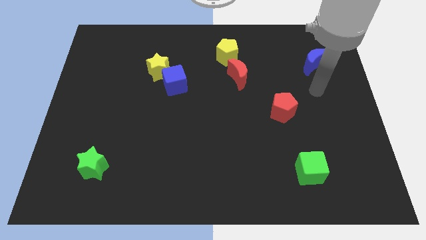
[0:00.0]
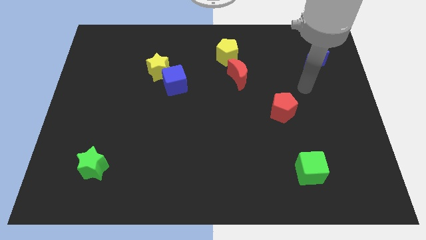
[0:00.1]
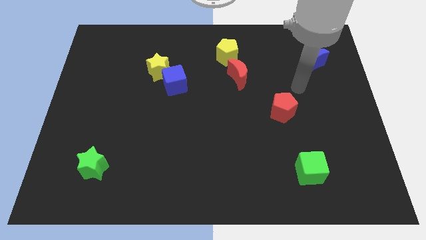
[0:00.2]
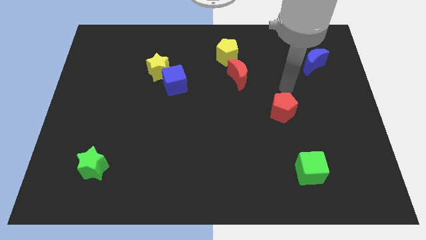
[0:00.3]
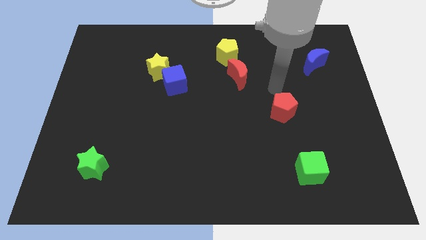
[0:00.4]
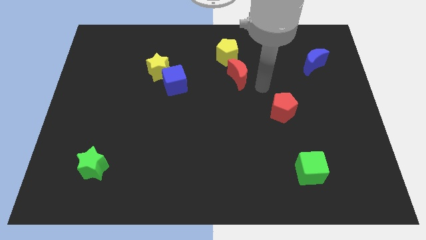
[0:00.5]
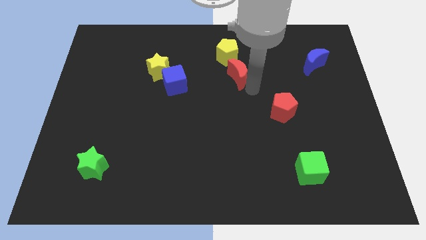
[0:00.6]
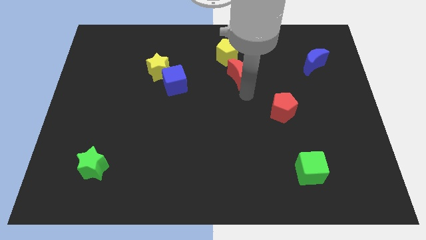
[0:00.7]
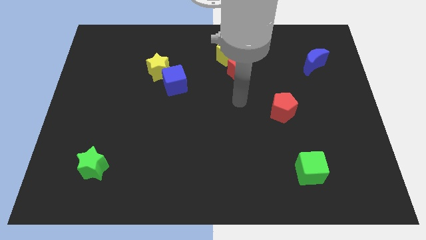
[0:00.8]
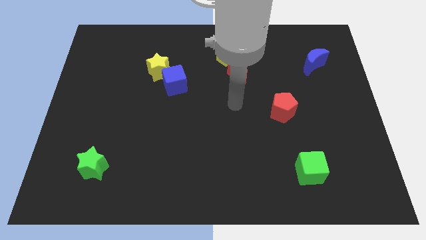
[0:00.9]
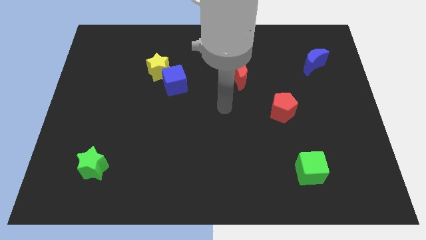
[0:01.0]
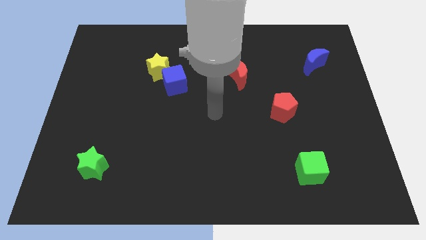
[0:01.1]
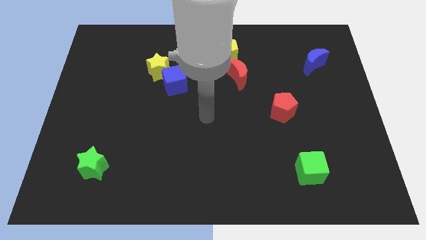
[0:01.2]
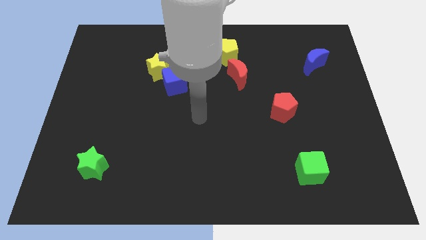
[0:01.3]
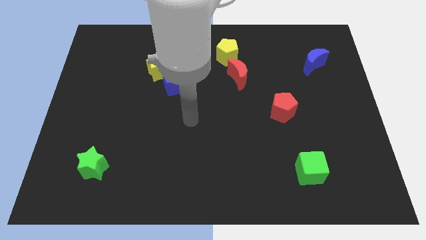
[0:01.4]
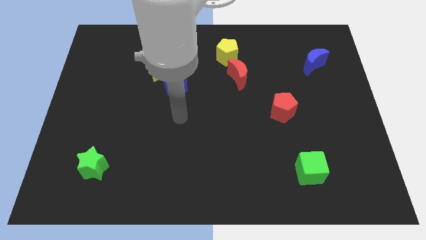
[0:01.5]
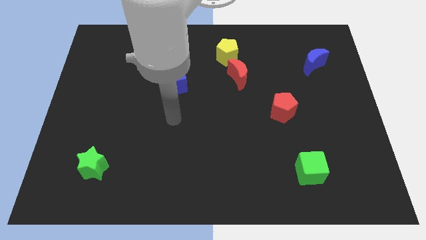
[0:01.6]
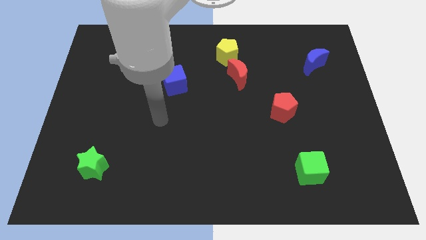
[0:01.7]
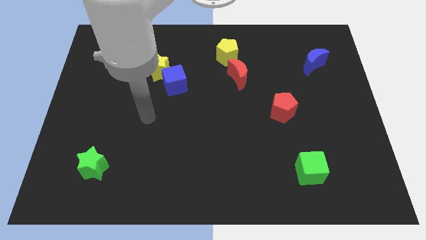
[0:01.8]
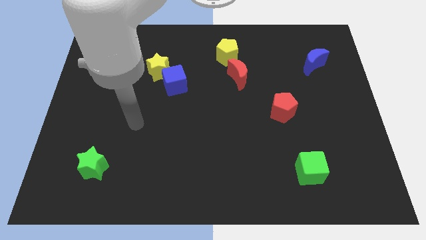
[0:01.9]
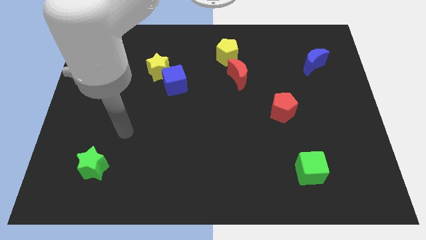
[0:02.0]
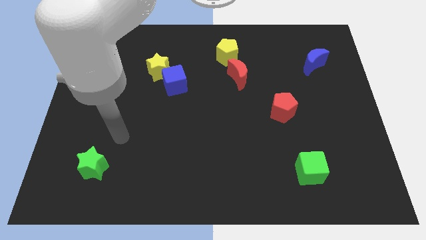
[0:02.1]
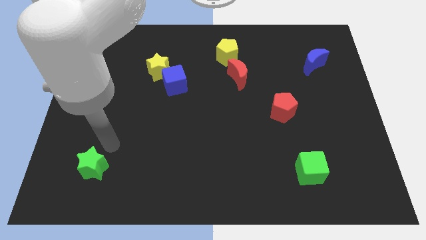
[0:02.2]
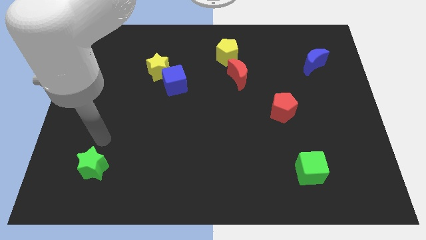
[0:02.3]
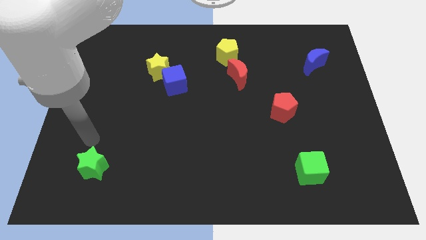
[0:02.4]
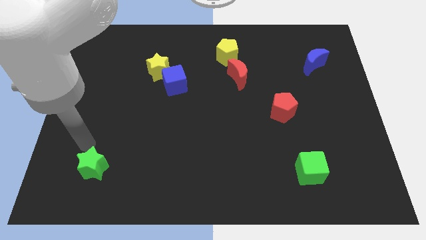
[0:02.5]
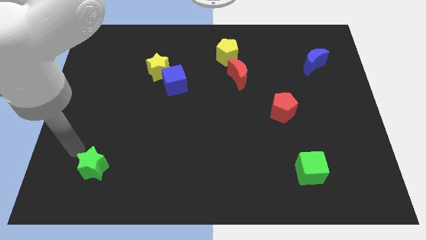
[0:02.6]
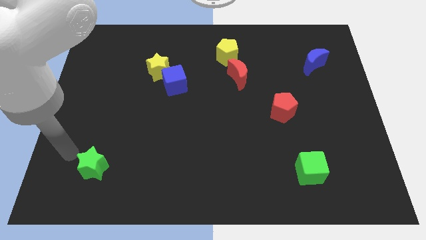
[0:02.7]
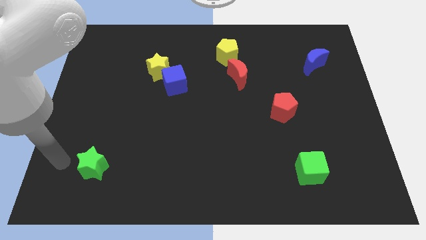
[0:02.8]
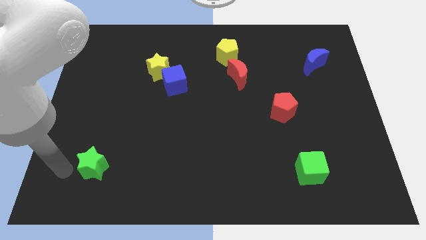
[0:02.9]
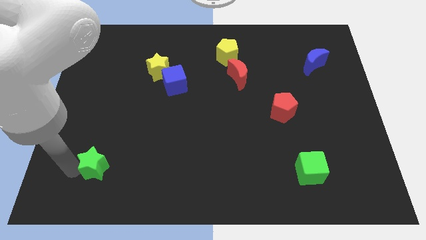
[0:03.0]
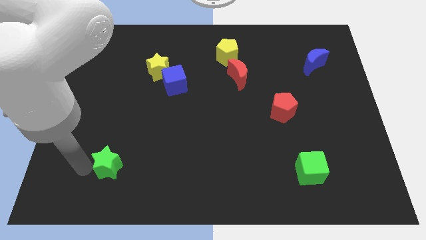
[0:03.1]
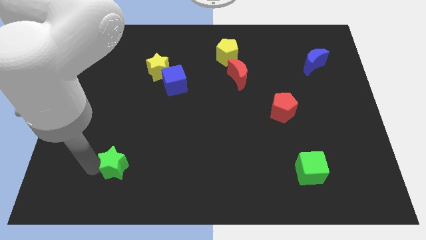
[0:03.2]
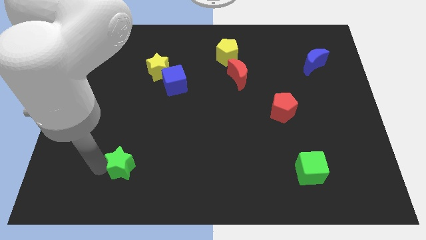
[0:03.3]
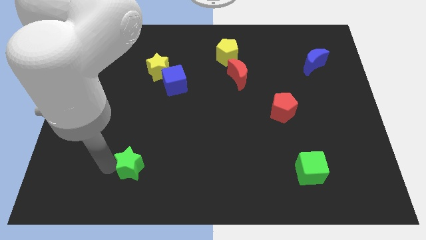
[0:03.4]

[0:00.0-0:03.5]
slide the green star a little to the right

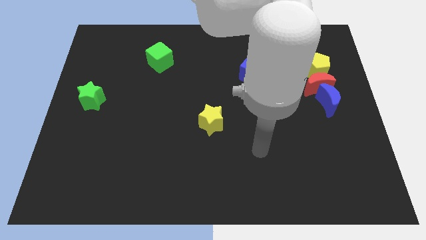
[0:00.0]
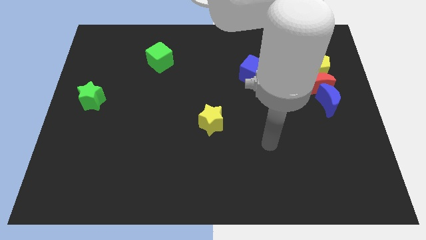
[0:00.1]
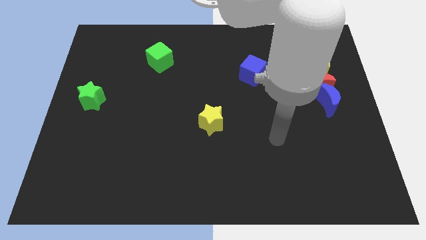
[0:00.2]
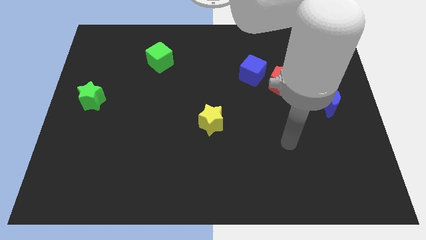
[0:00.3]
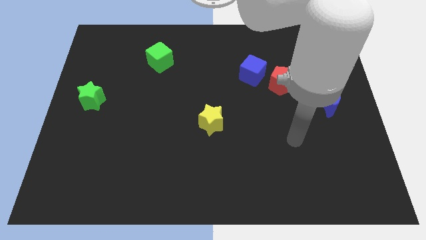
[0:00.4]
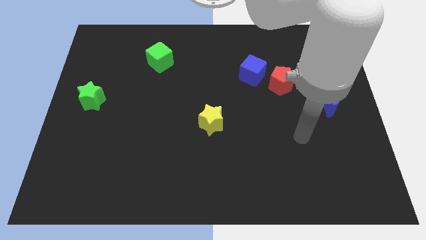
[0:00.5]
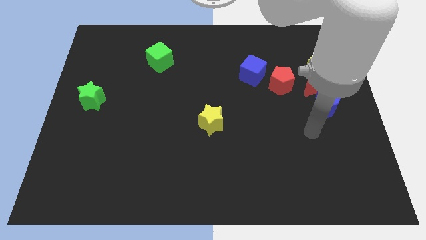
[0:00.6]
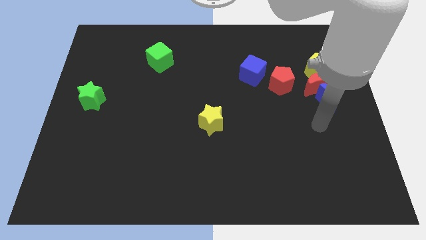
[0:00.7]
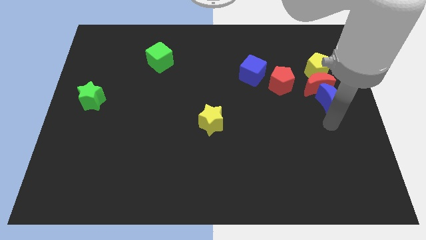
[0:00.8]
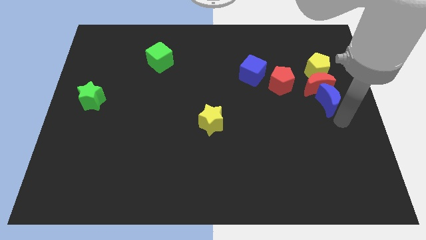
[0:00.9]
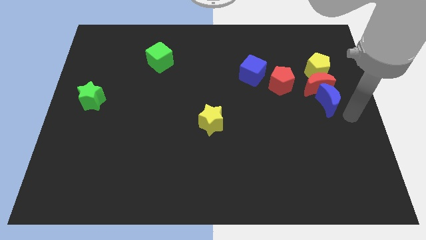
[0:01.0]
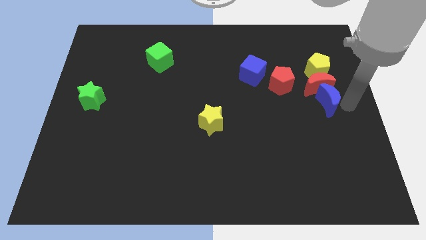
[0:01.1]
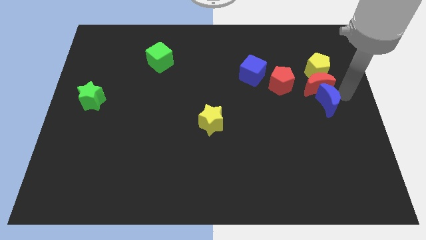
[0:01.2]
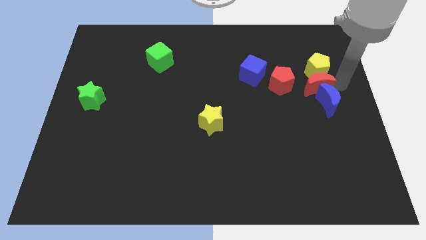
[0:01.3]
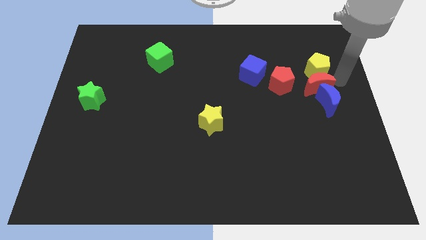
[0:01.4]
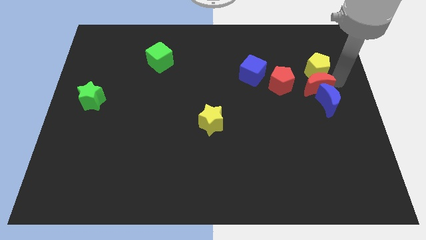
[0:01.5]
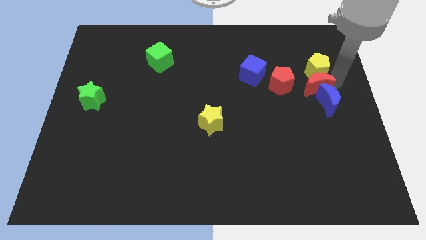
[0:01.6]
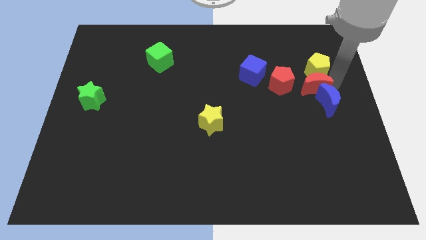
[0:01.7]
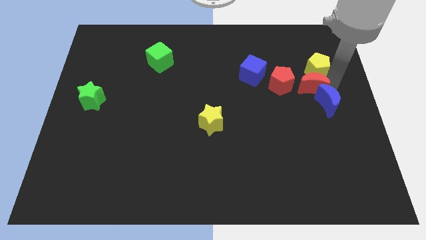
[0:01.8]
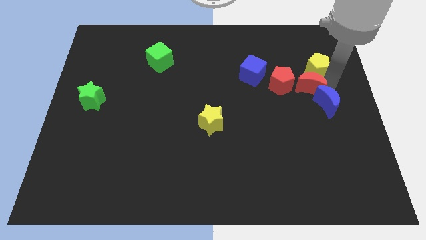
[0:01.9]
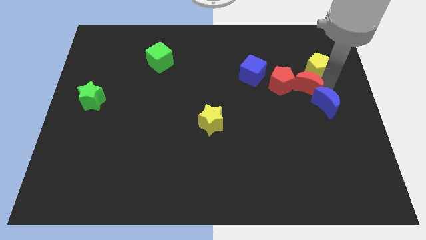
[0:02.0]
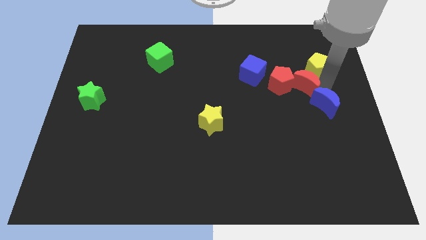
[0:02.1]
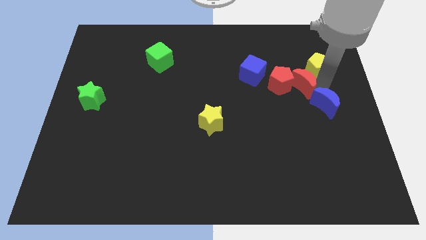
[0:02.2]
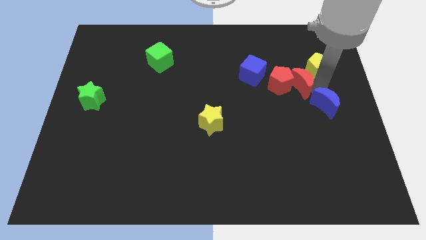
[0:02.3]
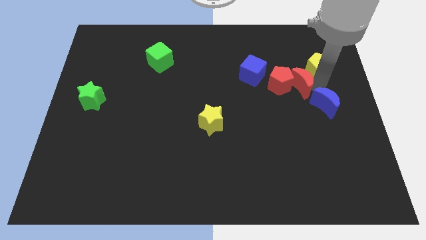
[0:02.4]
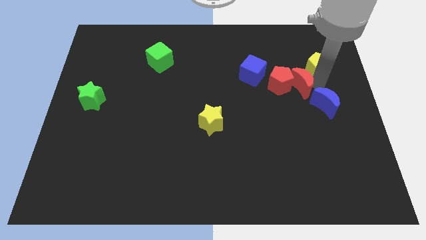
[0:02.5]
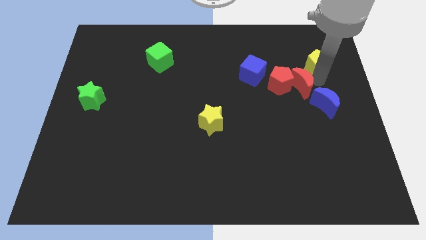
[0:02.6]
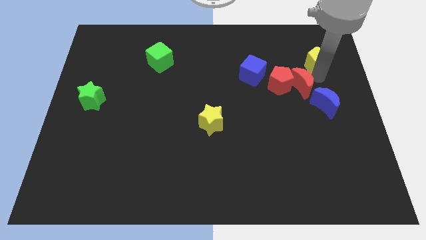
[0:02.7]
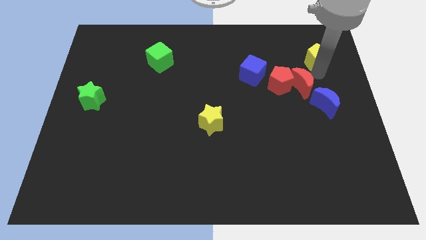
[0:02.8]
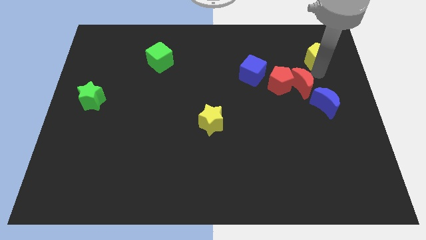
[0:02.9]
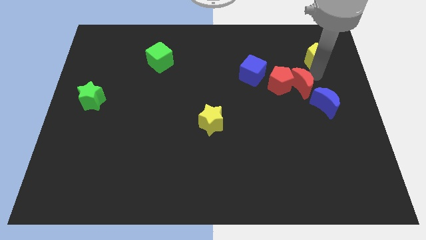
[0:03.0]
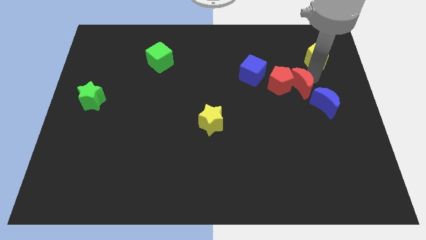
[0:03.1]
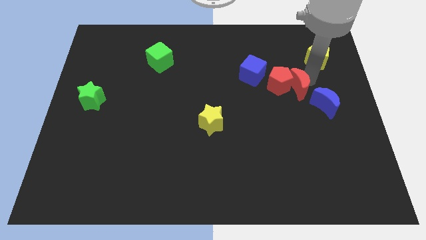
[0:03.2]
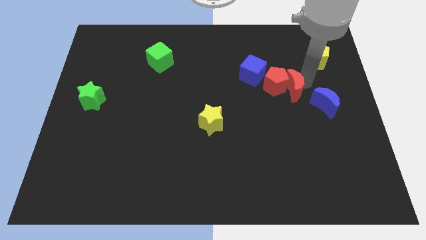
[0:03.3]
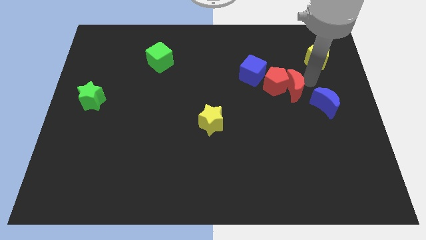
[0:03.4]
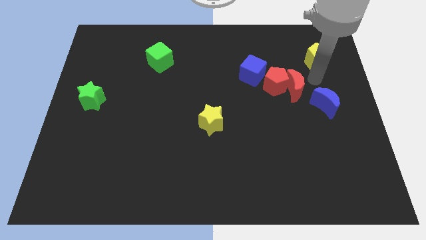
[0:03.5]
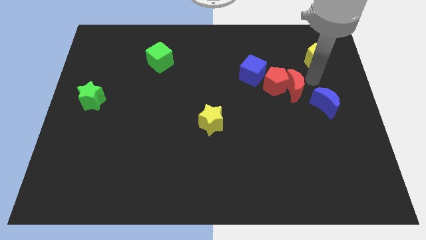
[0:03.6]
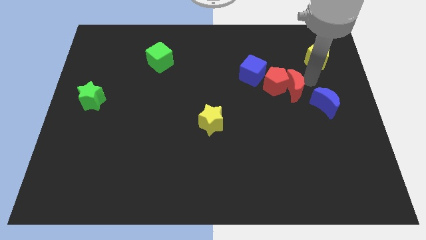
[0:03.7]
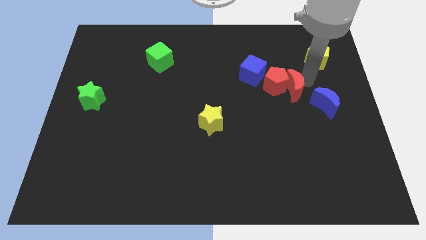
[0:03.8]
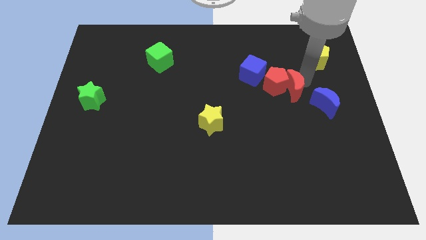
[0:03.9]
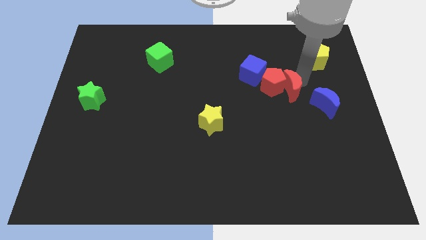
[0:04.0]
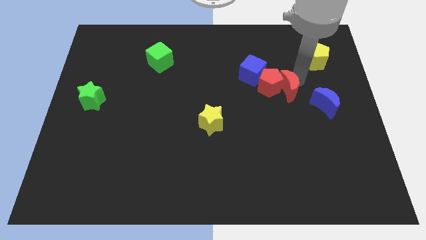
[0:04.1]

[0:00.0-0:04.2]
slightly move the red moon to the left
